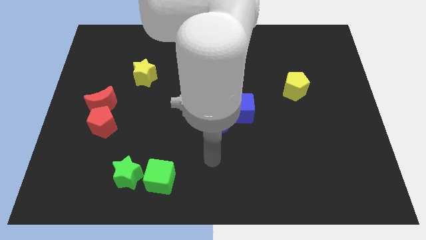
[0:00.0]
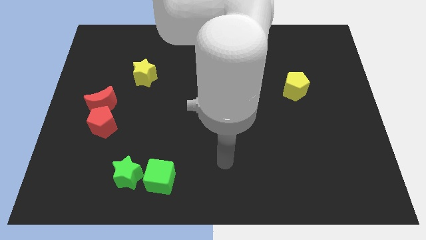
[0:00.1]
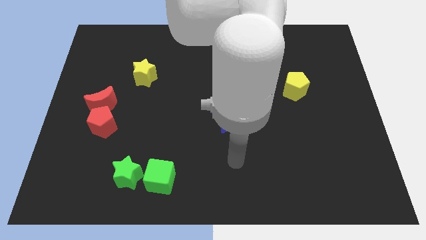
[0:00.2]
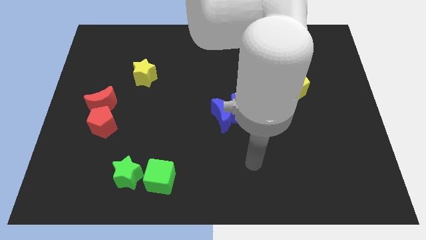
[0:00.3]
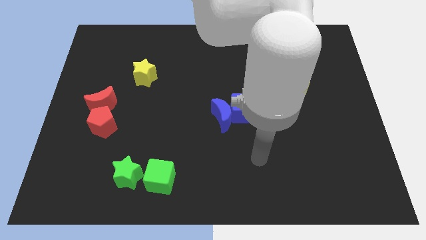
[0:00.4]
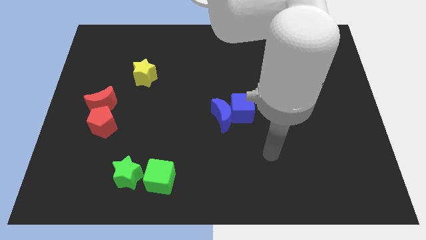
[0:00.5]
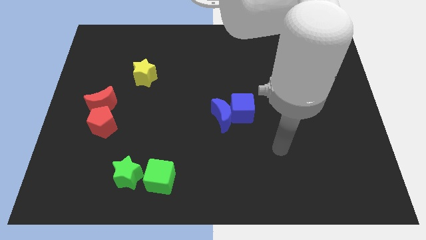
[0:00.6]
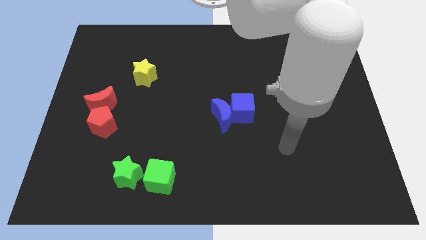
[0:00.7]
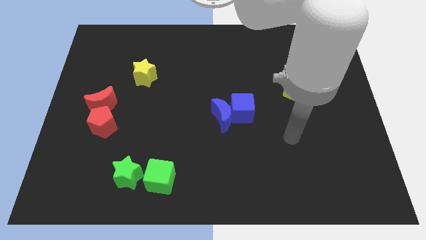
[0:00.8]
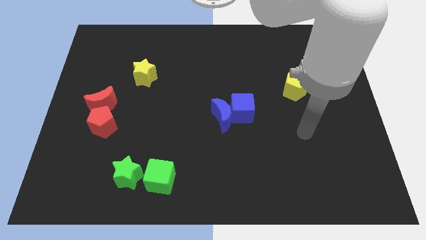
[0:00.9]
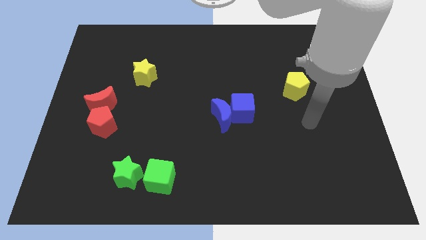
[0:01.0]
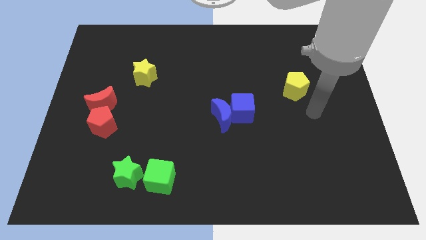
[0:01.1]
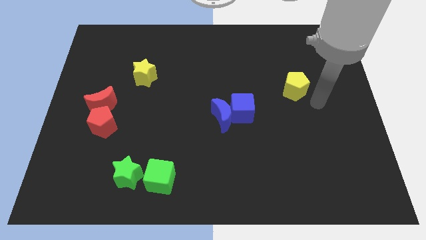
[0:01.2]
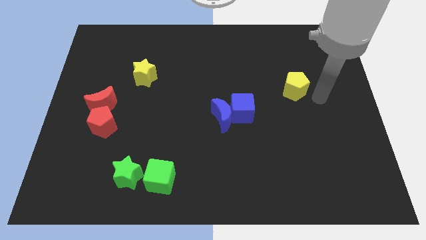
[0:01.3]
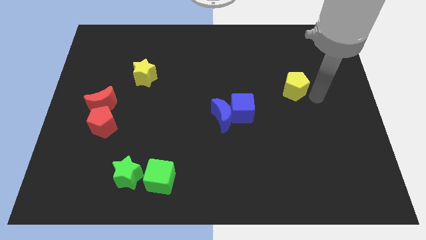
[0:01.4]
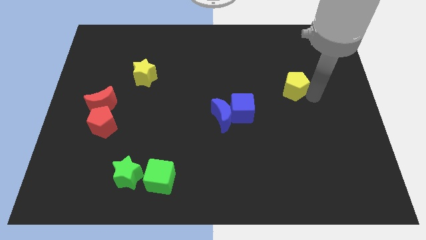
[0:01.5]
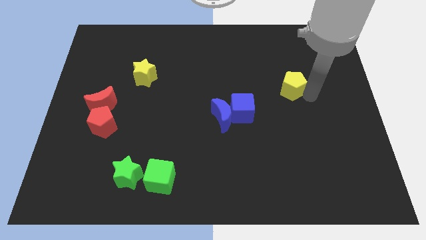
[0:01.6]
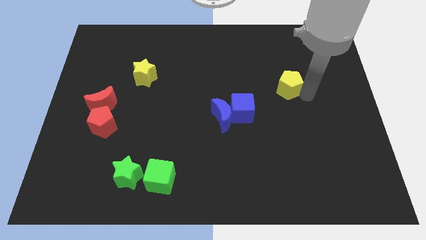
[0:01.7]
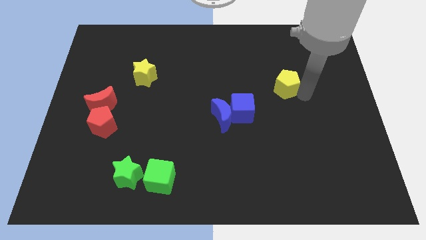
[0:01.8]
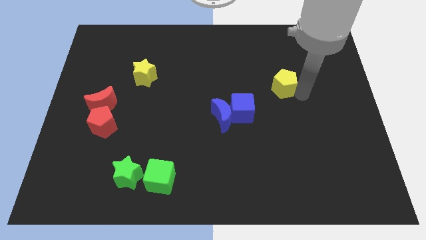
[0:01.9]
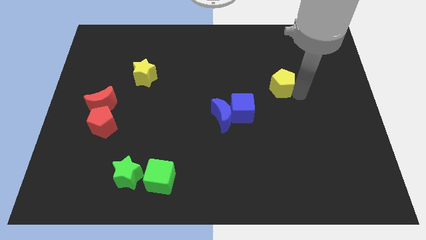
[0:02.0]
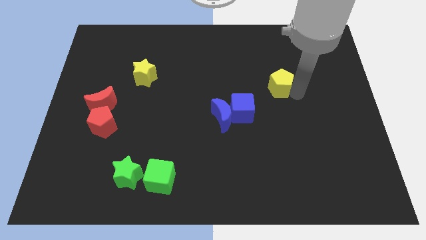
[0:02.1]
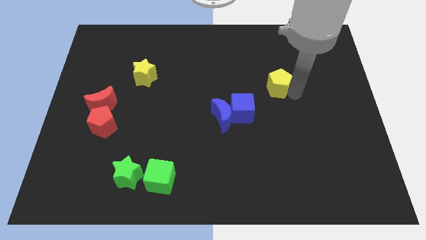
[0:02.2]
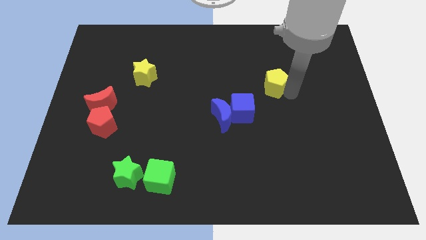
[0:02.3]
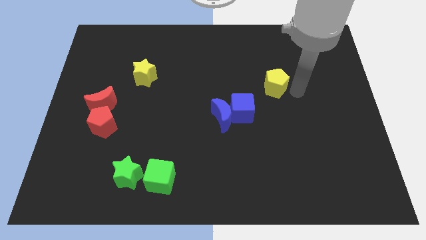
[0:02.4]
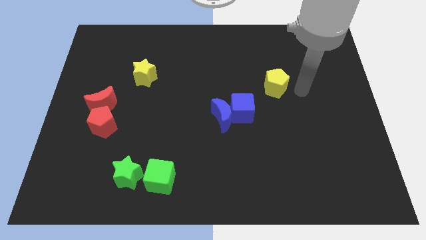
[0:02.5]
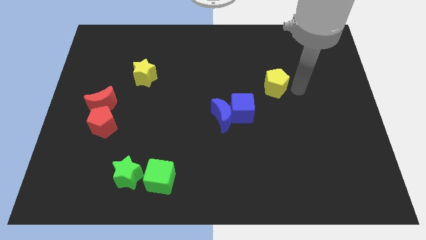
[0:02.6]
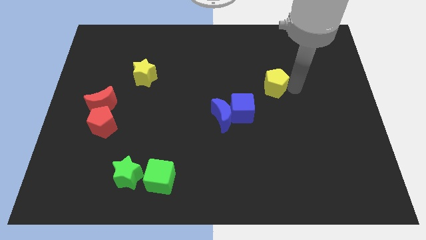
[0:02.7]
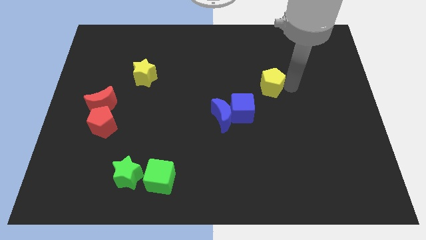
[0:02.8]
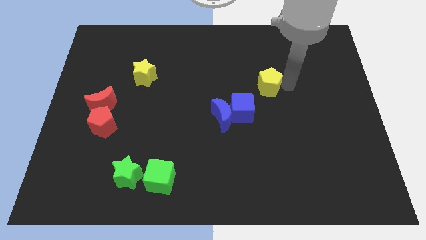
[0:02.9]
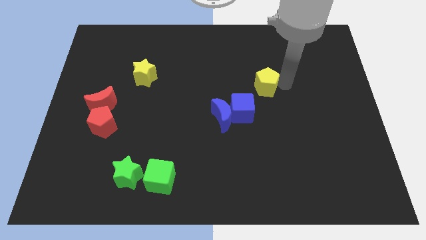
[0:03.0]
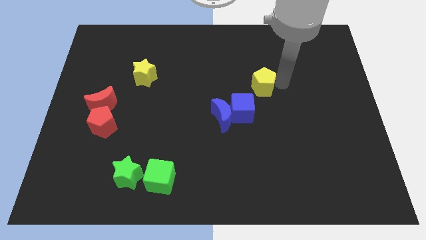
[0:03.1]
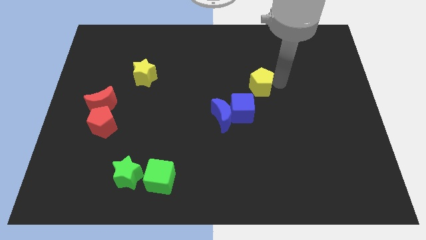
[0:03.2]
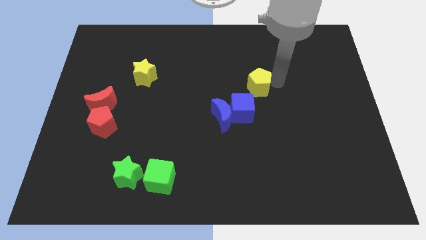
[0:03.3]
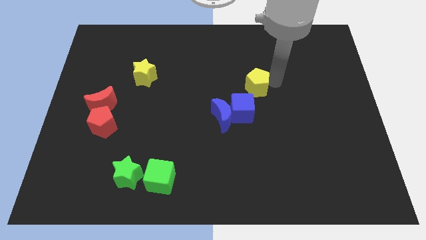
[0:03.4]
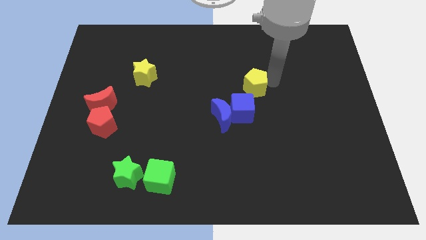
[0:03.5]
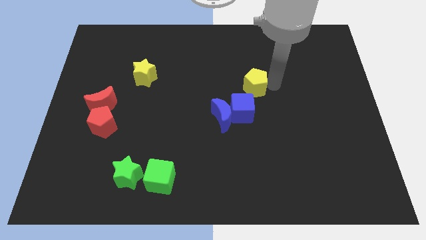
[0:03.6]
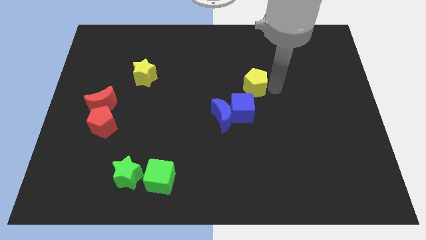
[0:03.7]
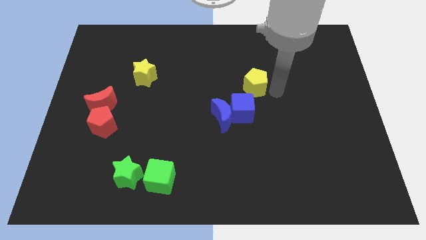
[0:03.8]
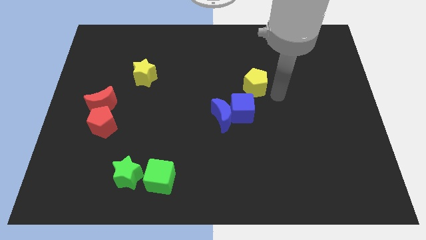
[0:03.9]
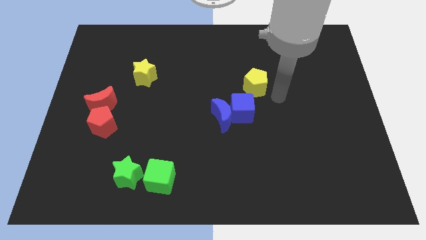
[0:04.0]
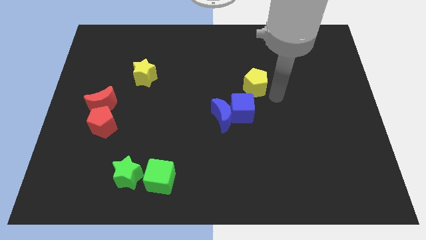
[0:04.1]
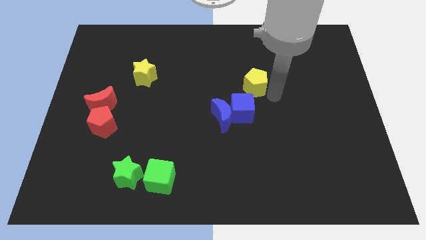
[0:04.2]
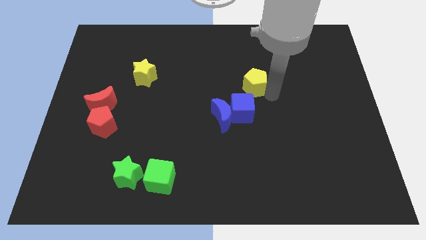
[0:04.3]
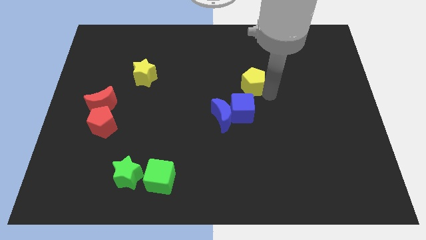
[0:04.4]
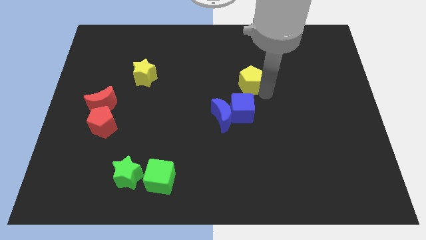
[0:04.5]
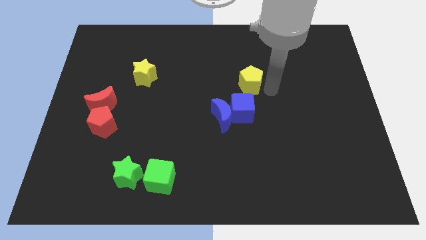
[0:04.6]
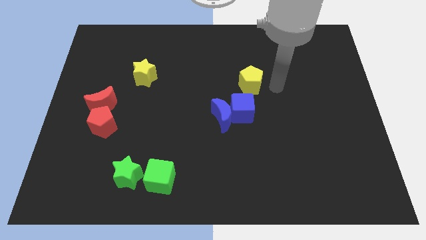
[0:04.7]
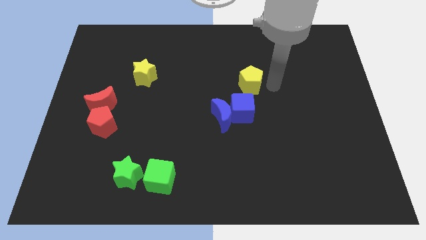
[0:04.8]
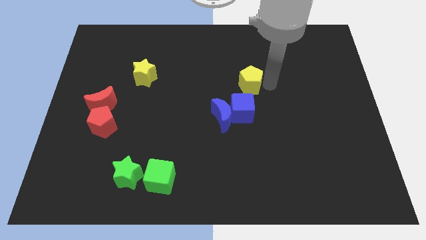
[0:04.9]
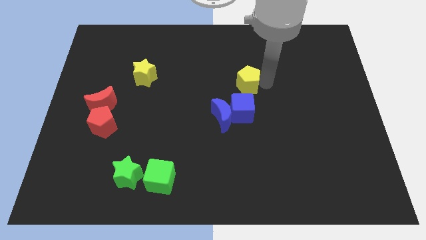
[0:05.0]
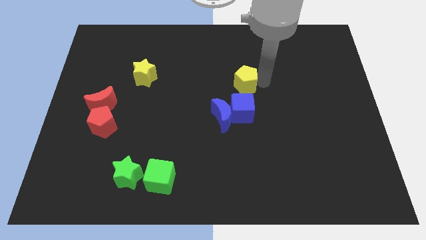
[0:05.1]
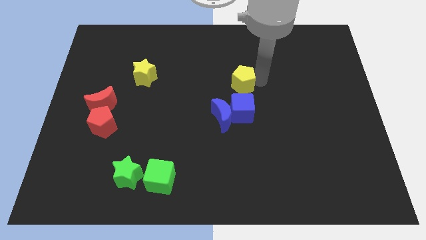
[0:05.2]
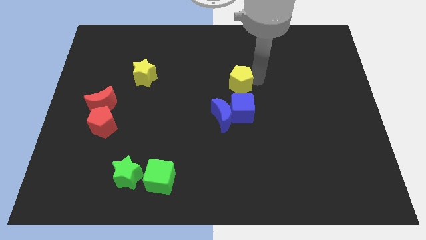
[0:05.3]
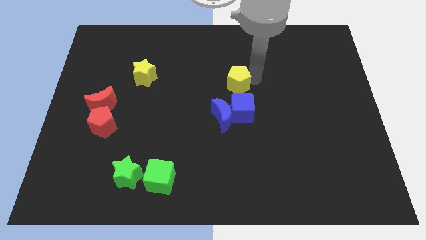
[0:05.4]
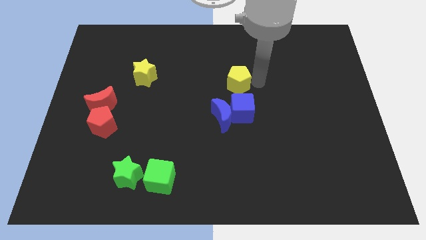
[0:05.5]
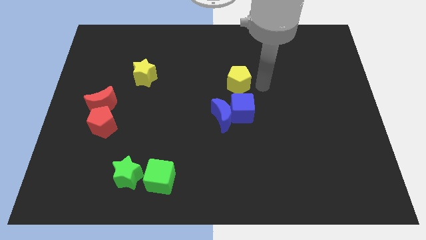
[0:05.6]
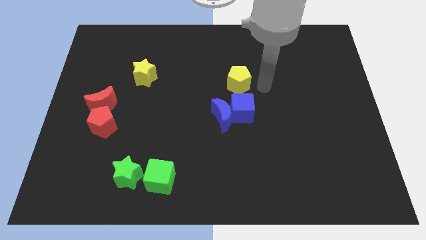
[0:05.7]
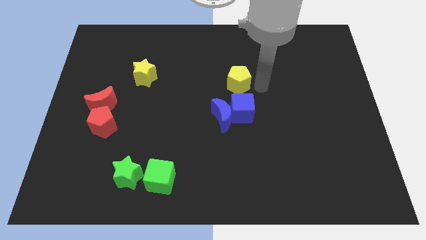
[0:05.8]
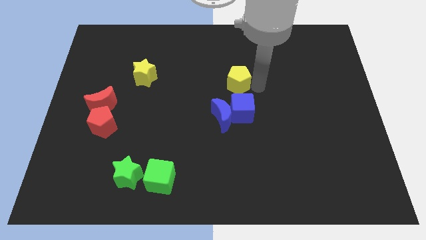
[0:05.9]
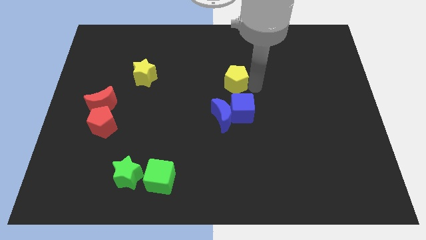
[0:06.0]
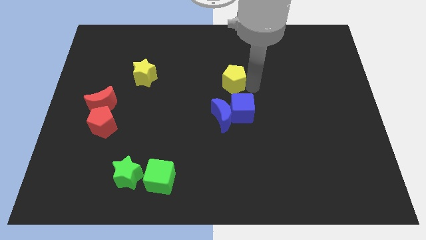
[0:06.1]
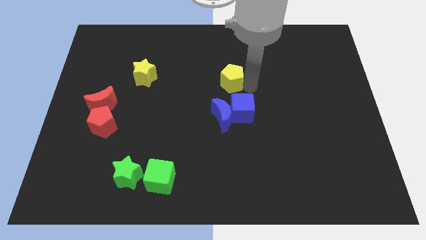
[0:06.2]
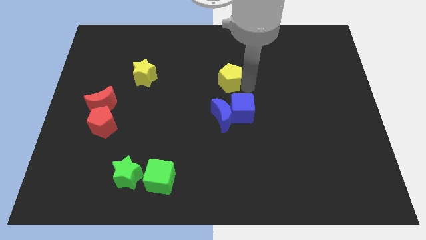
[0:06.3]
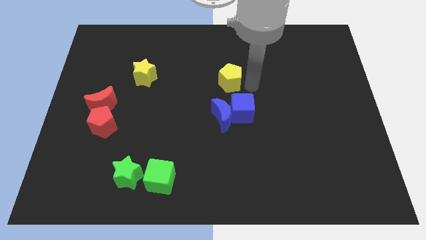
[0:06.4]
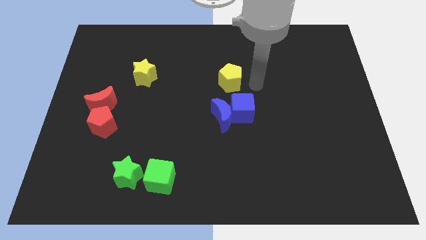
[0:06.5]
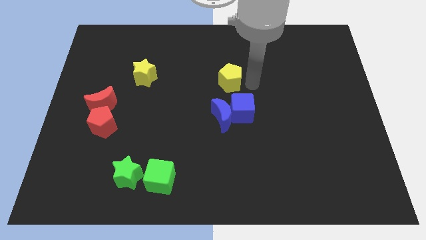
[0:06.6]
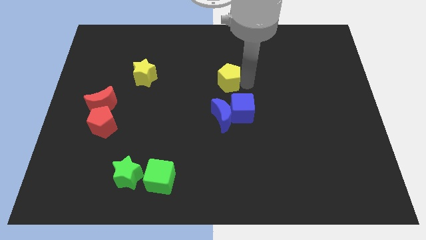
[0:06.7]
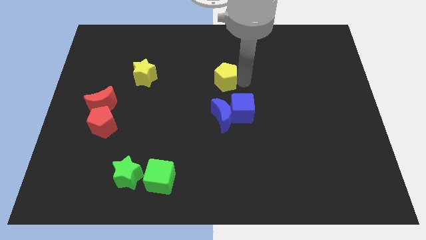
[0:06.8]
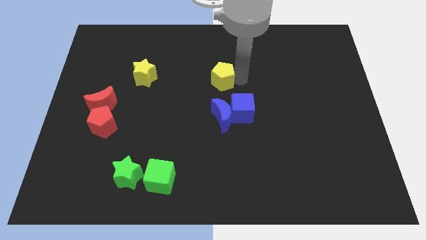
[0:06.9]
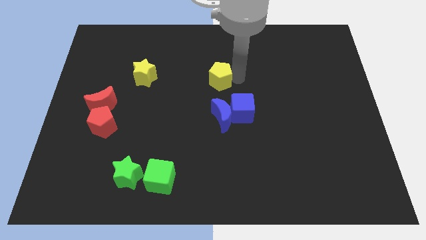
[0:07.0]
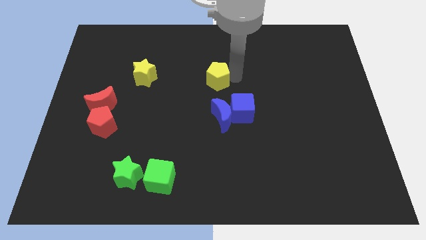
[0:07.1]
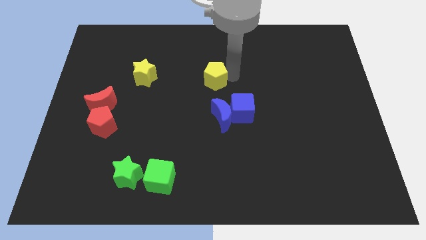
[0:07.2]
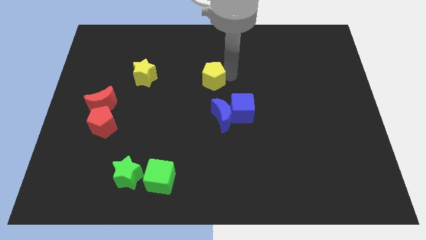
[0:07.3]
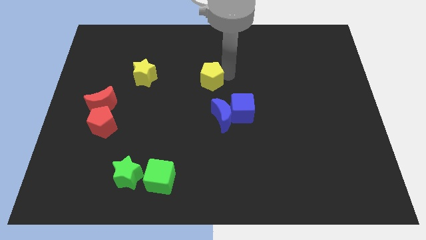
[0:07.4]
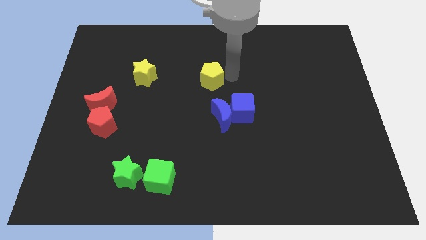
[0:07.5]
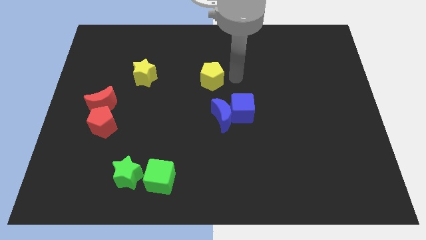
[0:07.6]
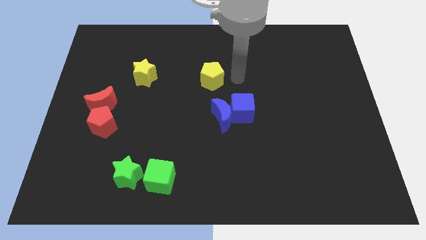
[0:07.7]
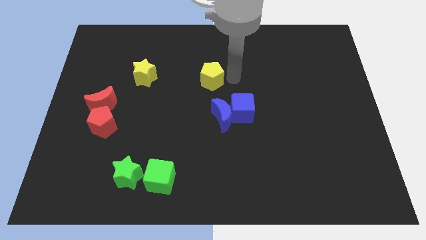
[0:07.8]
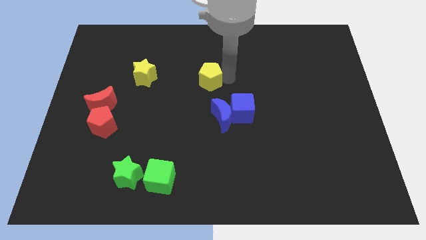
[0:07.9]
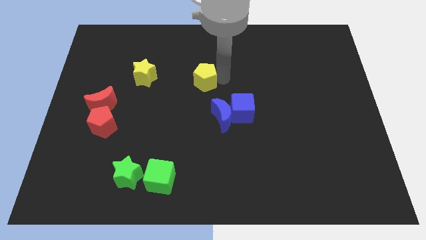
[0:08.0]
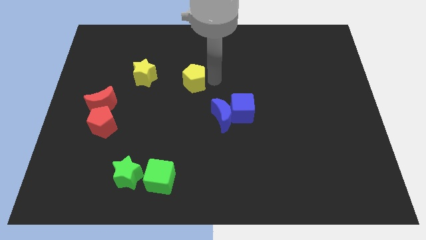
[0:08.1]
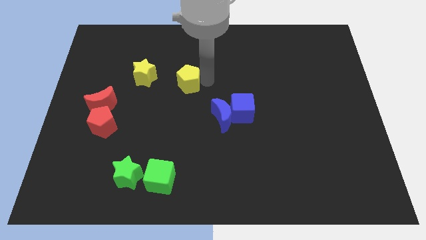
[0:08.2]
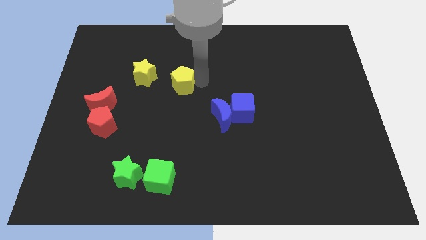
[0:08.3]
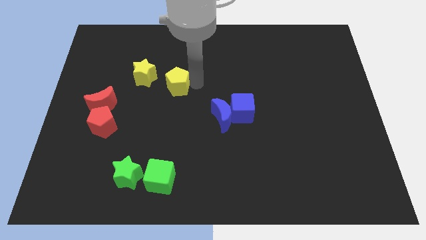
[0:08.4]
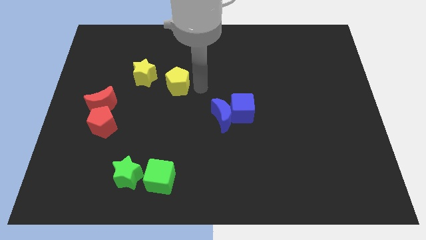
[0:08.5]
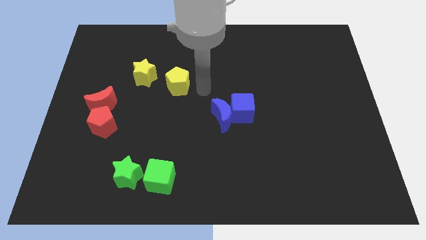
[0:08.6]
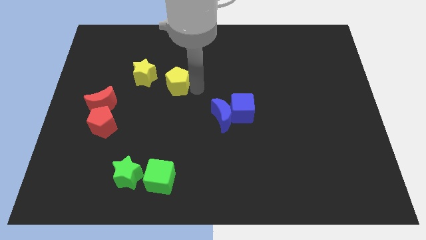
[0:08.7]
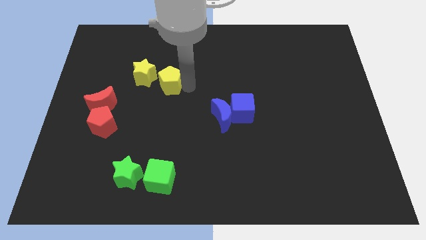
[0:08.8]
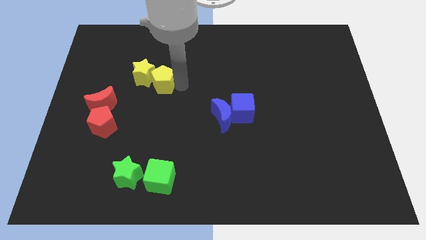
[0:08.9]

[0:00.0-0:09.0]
move the yellow pentagon next to the yellow star
